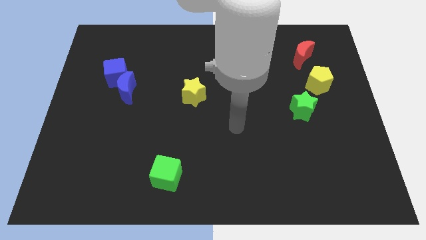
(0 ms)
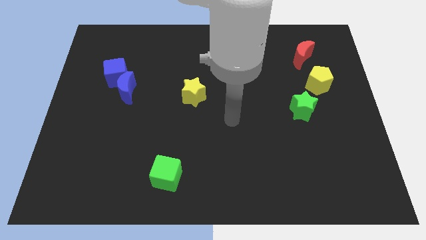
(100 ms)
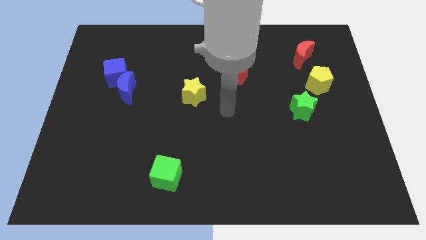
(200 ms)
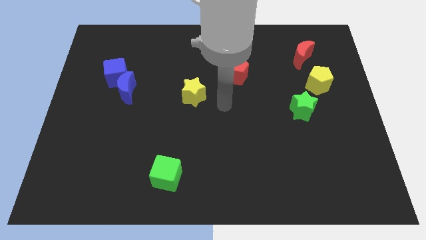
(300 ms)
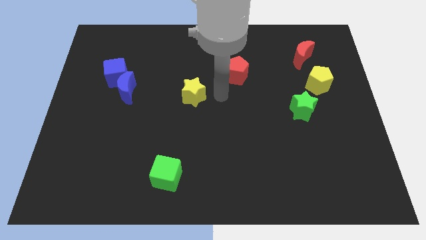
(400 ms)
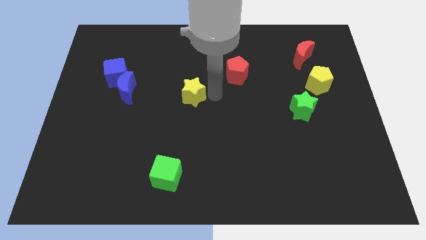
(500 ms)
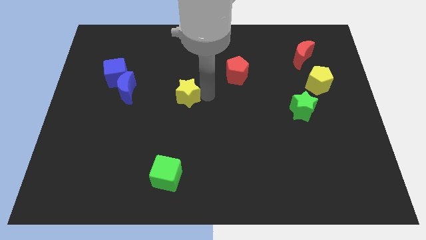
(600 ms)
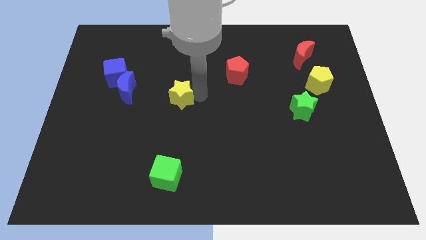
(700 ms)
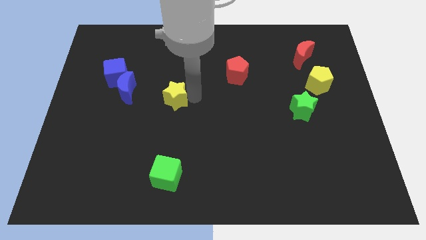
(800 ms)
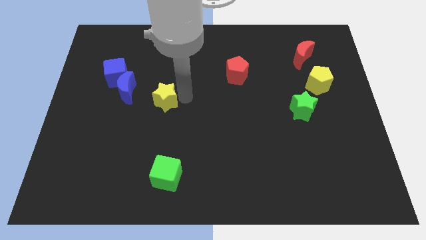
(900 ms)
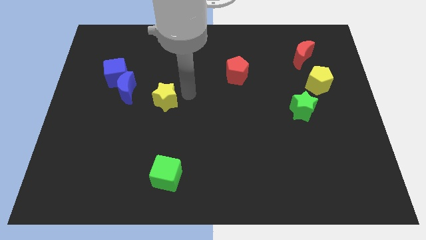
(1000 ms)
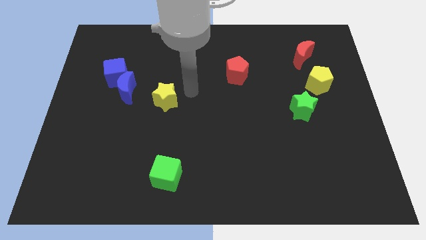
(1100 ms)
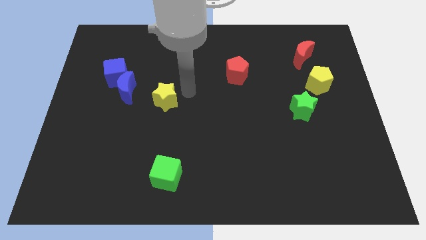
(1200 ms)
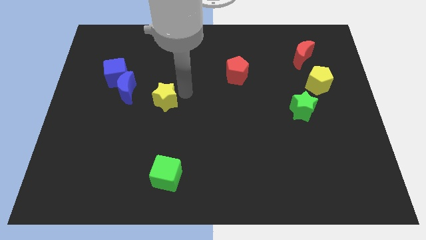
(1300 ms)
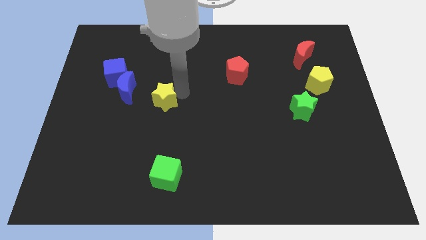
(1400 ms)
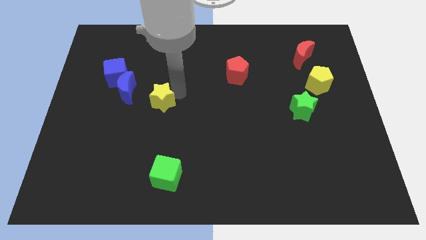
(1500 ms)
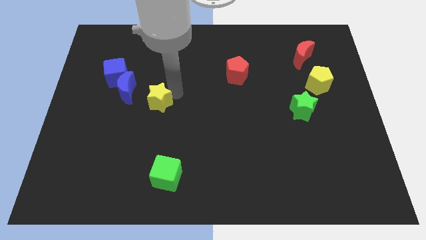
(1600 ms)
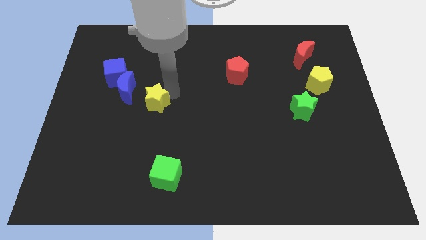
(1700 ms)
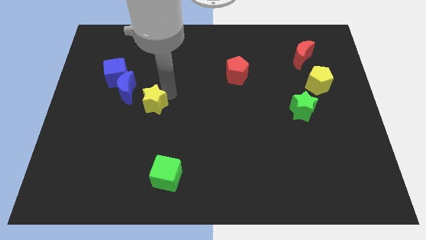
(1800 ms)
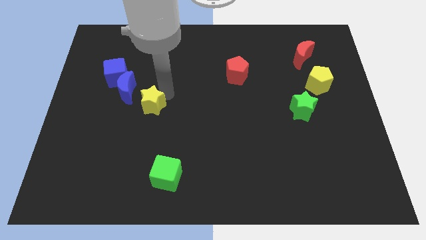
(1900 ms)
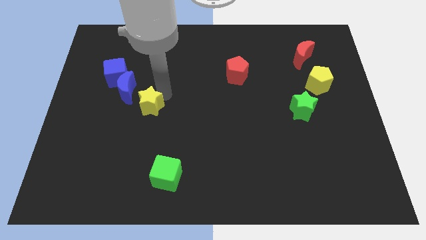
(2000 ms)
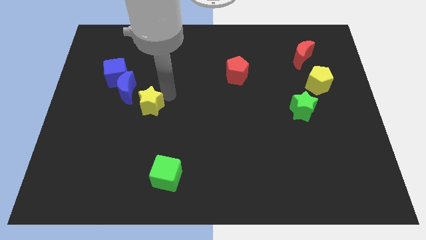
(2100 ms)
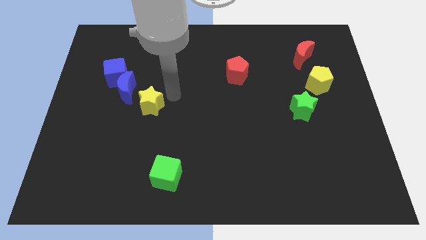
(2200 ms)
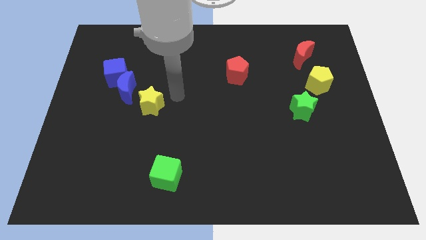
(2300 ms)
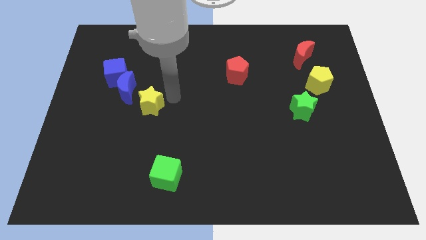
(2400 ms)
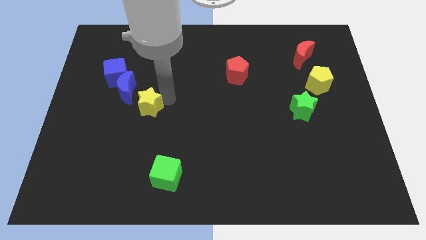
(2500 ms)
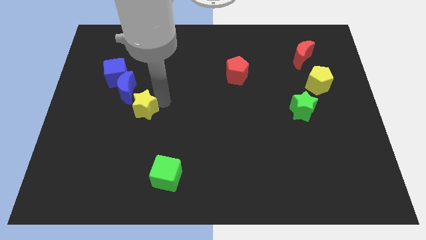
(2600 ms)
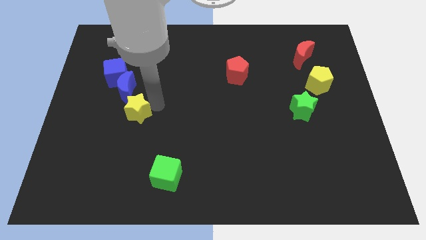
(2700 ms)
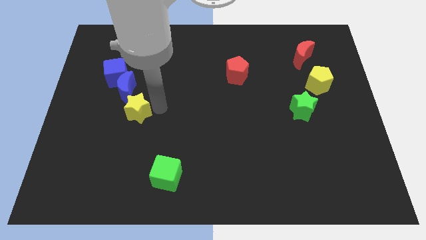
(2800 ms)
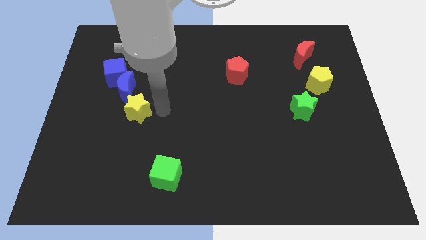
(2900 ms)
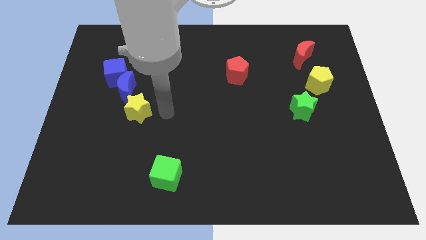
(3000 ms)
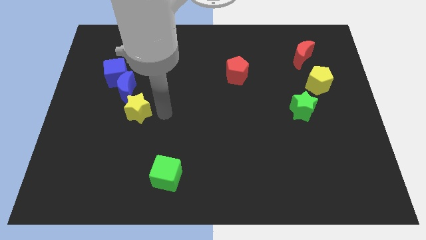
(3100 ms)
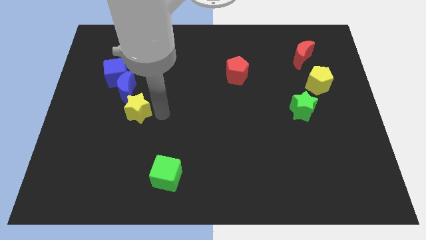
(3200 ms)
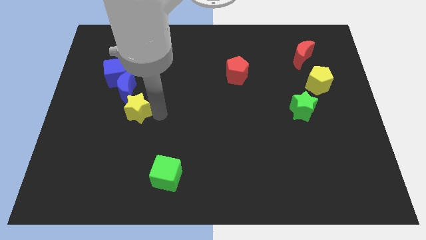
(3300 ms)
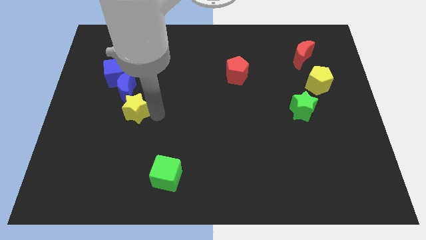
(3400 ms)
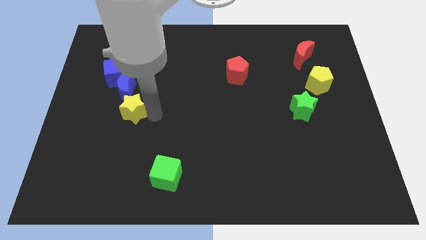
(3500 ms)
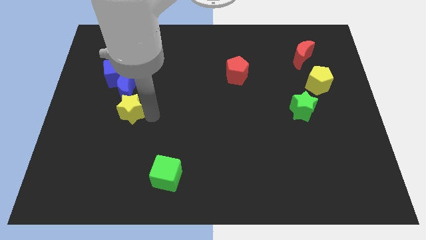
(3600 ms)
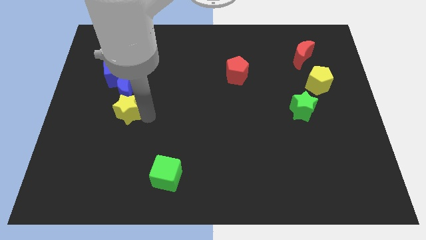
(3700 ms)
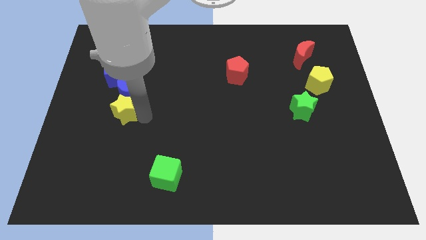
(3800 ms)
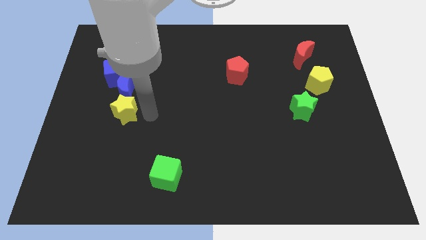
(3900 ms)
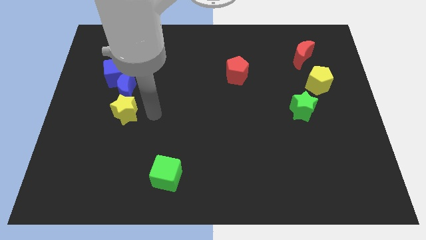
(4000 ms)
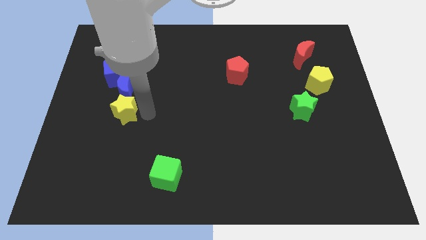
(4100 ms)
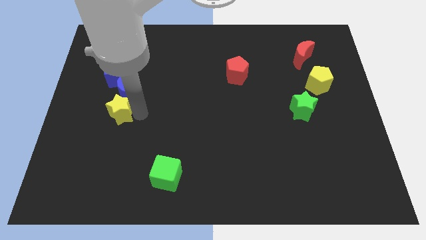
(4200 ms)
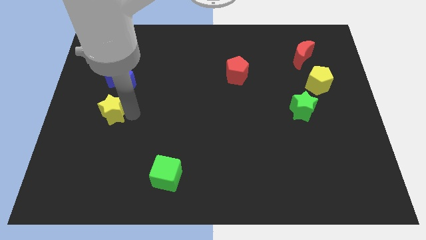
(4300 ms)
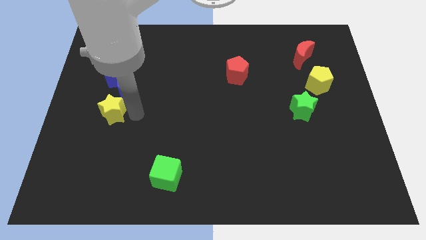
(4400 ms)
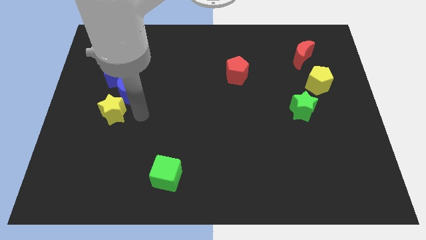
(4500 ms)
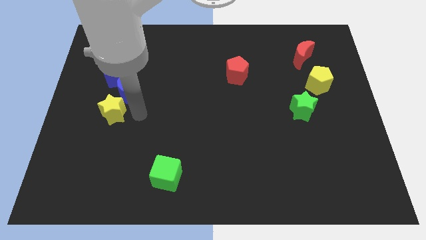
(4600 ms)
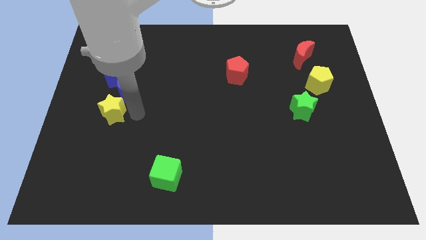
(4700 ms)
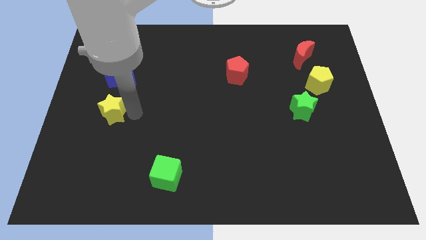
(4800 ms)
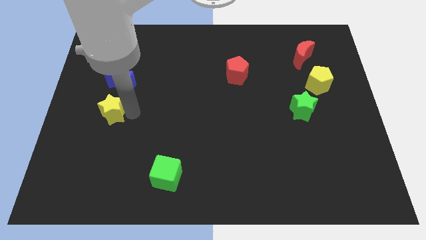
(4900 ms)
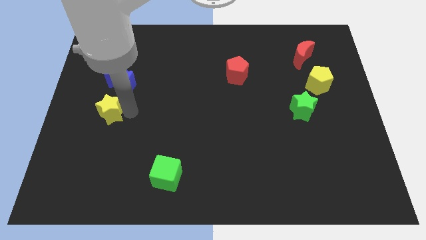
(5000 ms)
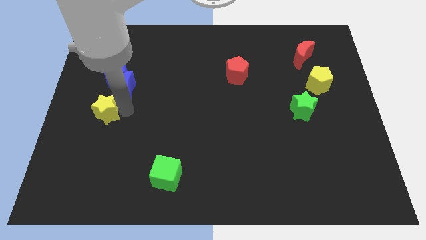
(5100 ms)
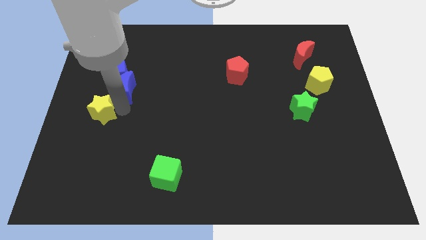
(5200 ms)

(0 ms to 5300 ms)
push the yellow star to the left side

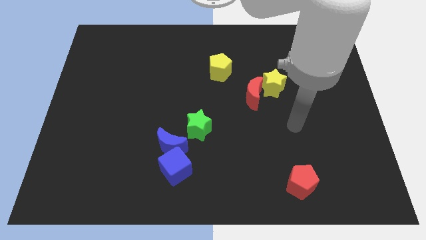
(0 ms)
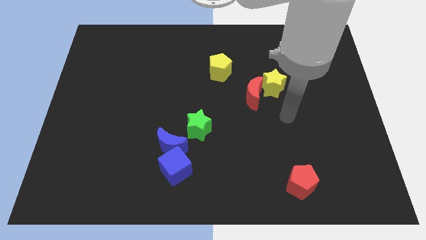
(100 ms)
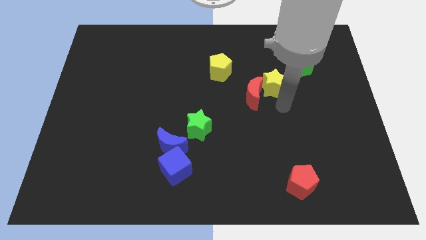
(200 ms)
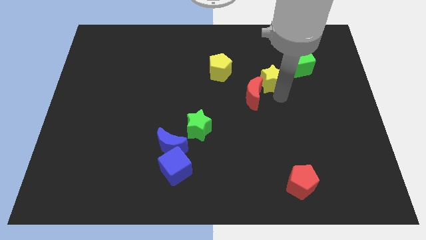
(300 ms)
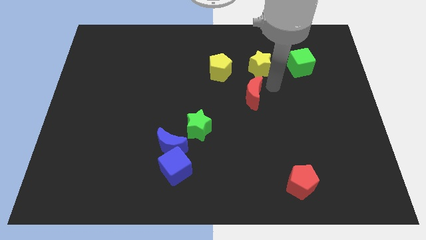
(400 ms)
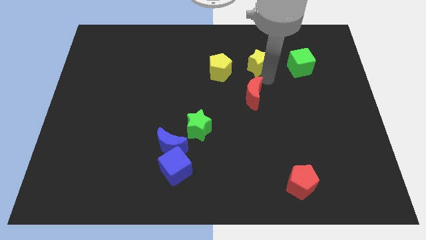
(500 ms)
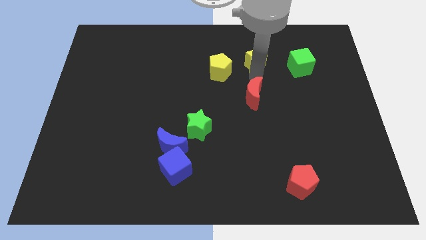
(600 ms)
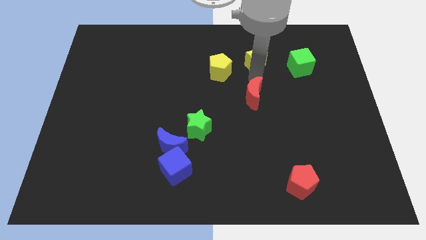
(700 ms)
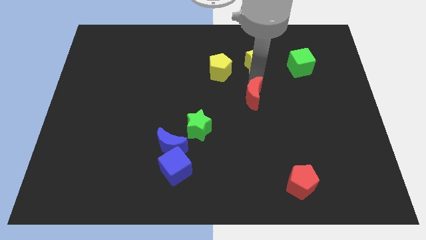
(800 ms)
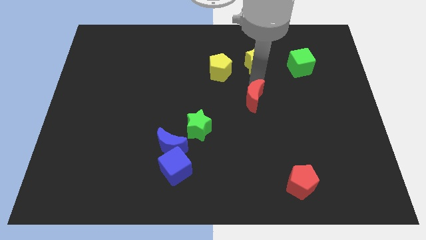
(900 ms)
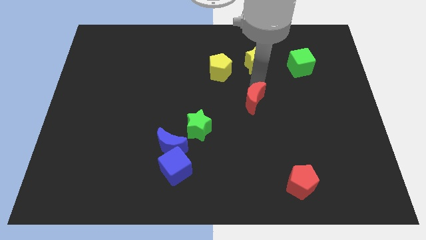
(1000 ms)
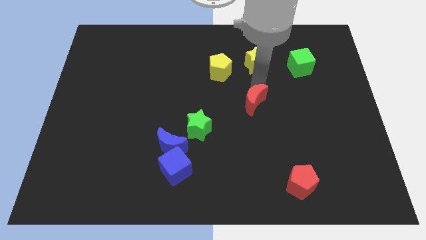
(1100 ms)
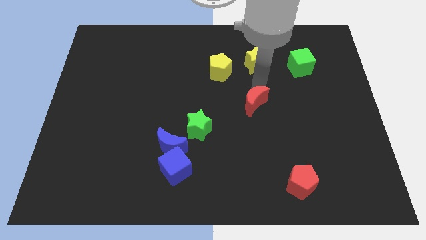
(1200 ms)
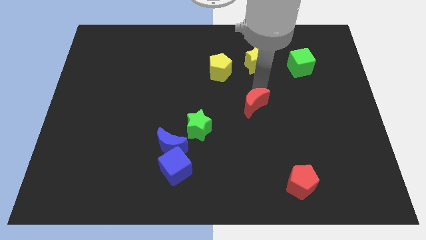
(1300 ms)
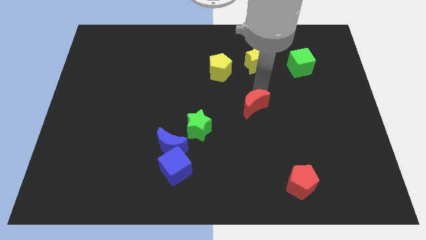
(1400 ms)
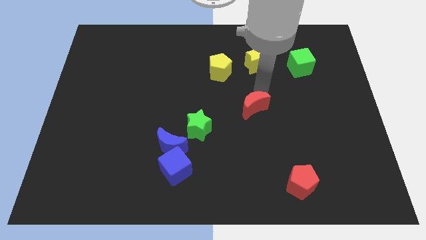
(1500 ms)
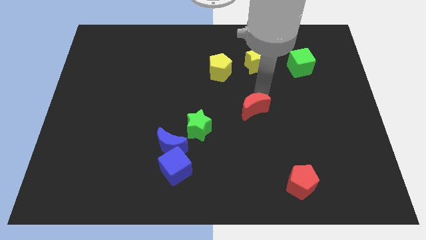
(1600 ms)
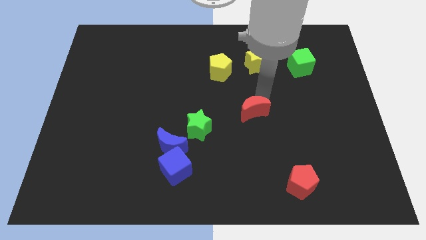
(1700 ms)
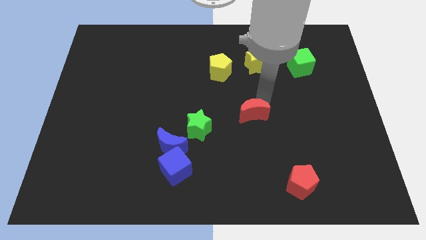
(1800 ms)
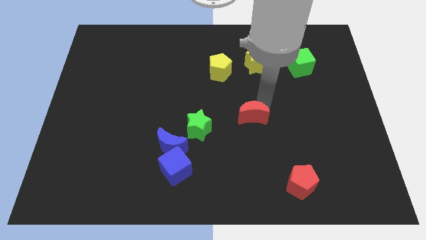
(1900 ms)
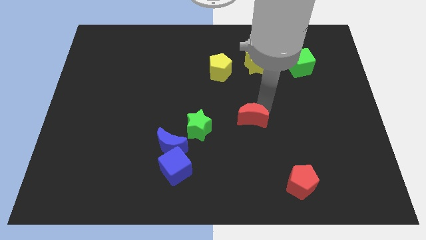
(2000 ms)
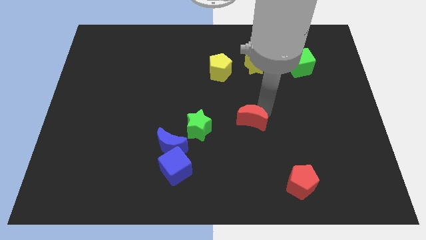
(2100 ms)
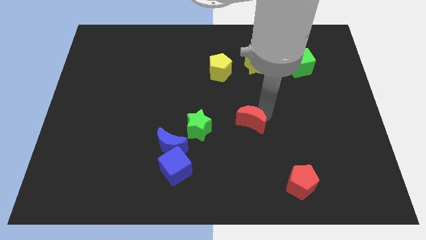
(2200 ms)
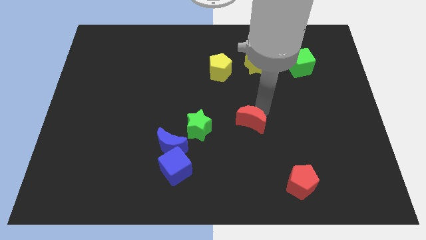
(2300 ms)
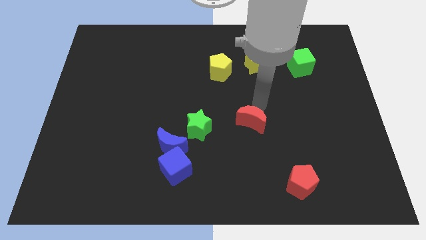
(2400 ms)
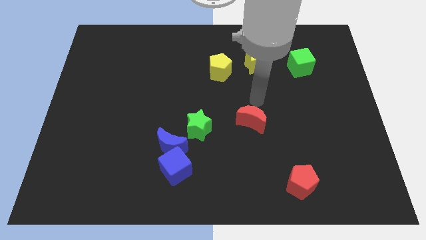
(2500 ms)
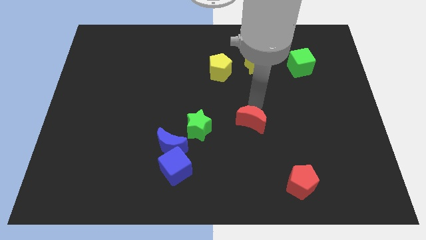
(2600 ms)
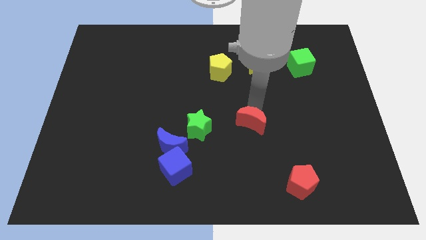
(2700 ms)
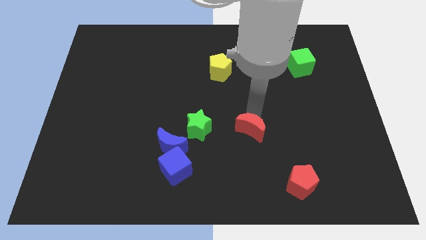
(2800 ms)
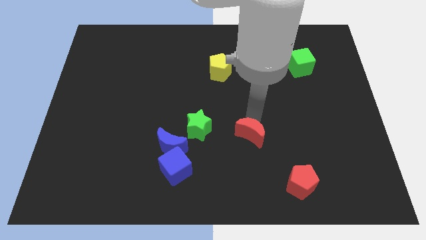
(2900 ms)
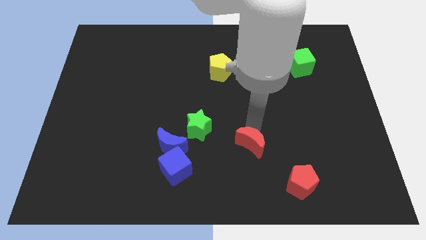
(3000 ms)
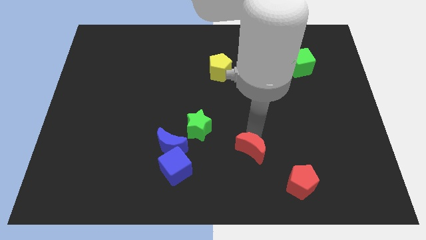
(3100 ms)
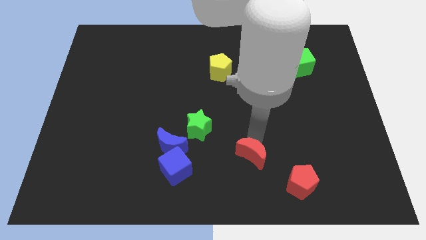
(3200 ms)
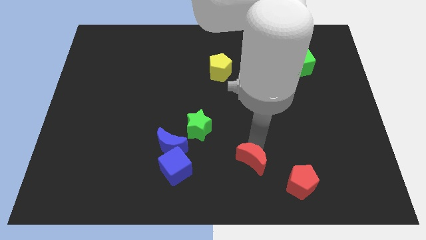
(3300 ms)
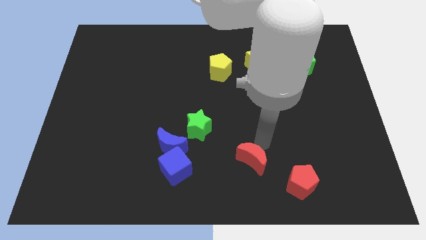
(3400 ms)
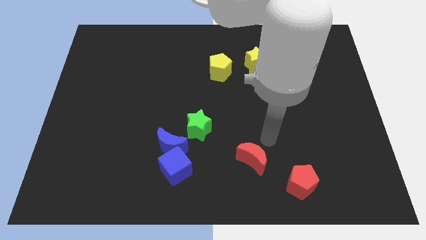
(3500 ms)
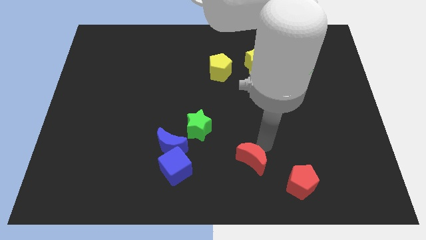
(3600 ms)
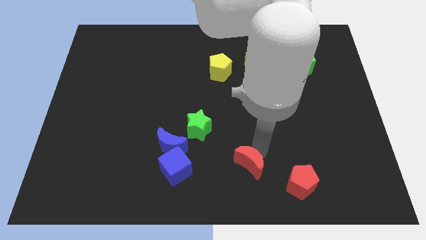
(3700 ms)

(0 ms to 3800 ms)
move the red moon to the bottom
